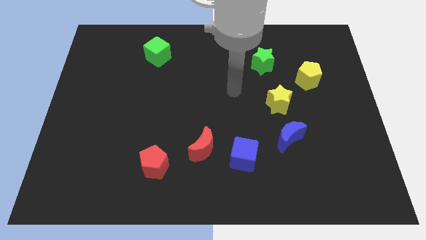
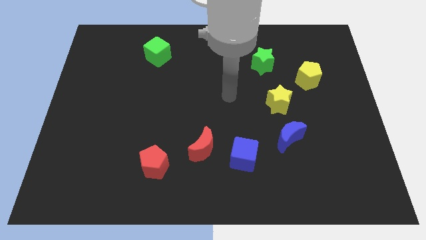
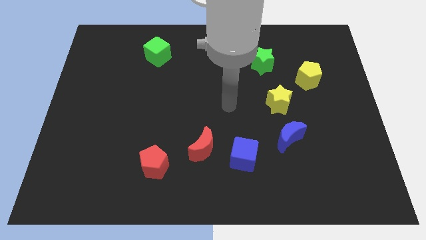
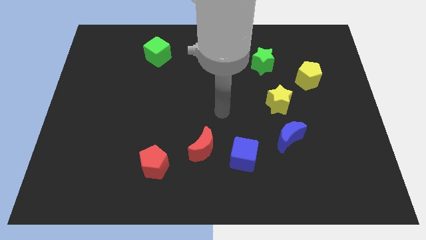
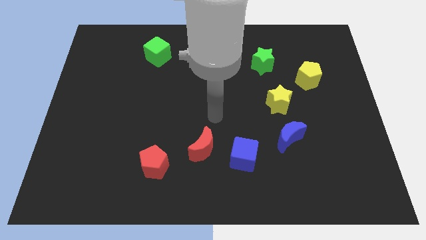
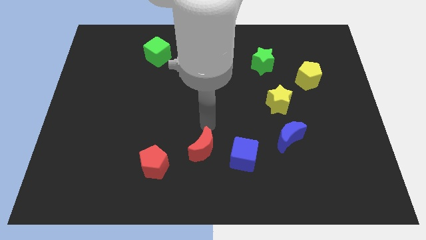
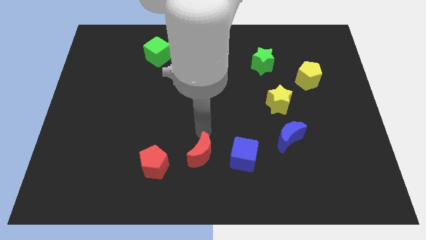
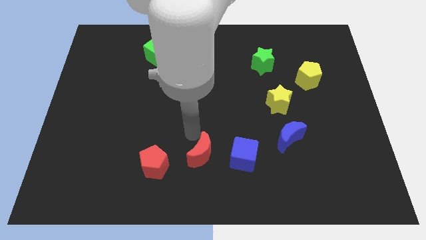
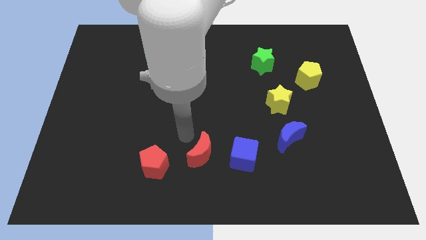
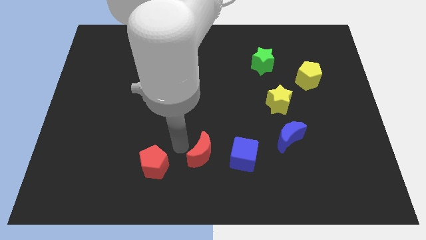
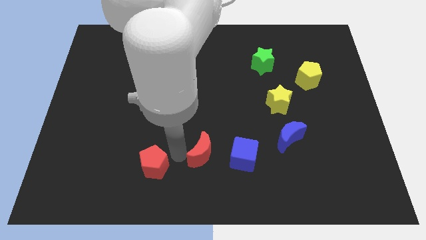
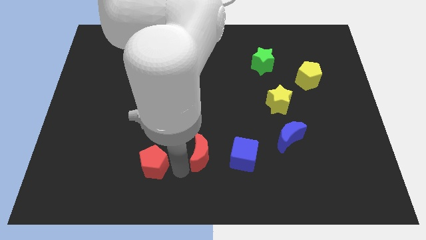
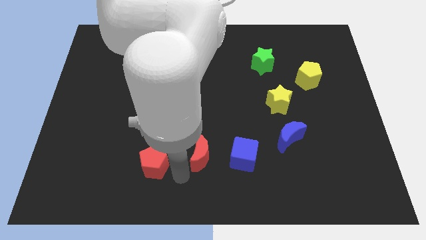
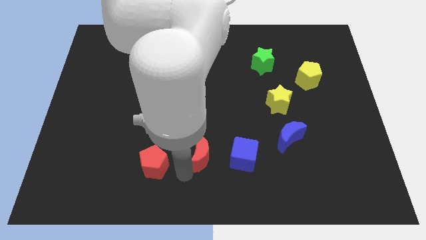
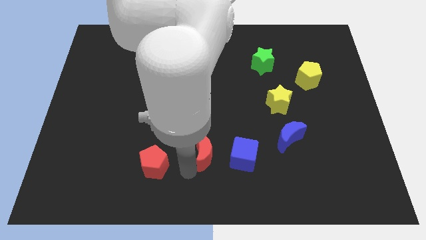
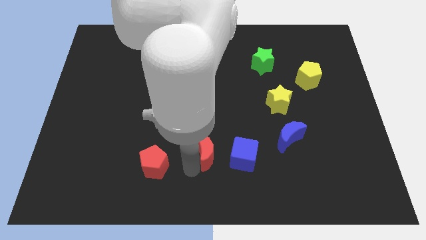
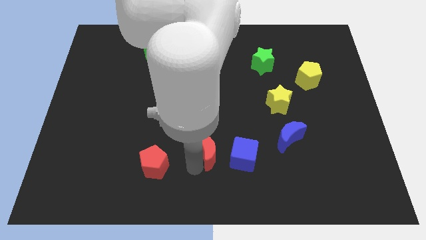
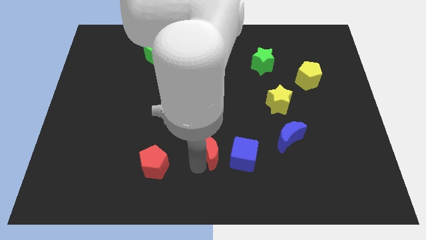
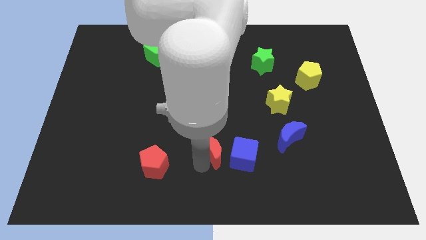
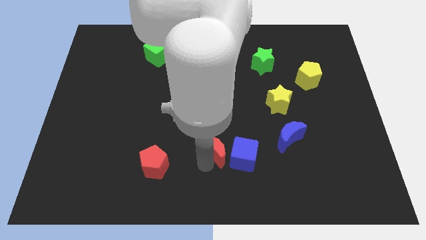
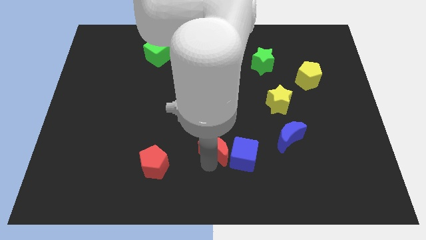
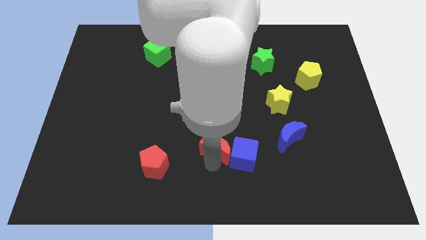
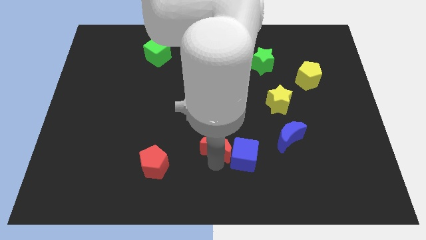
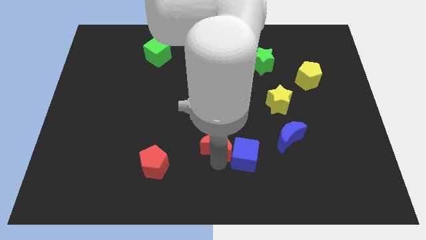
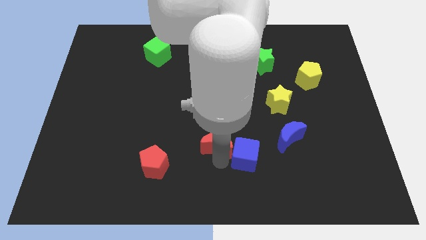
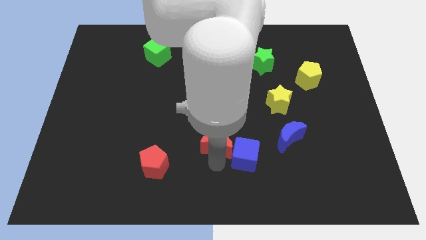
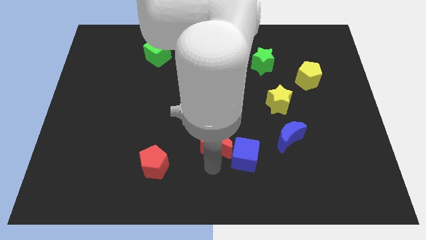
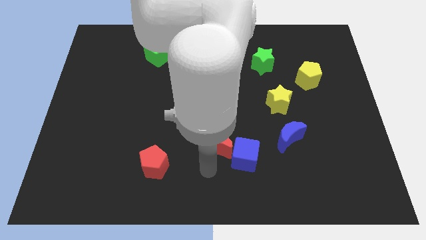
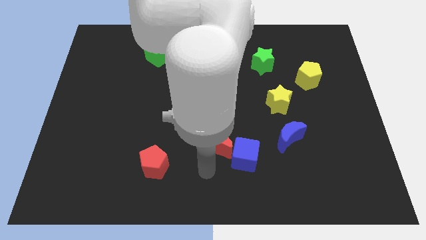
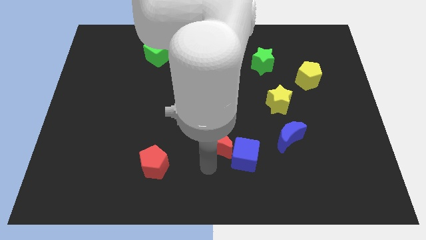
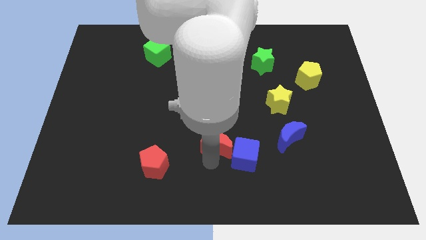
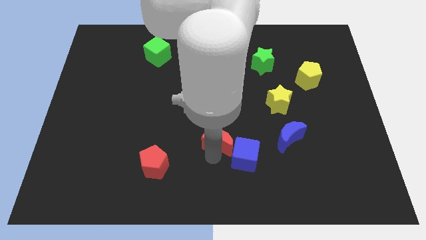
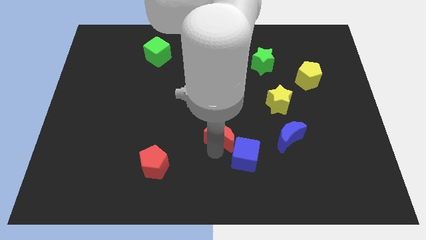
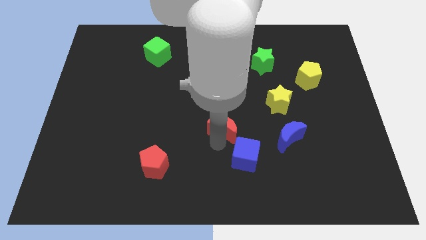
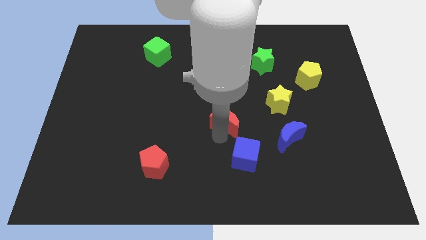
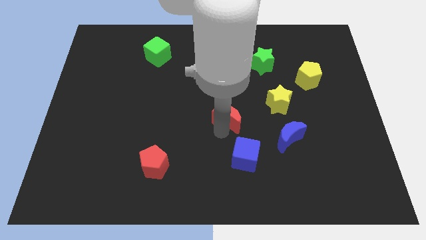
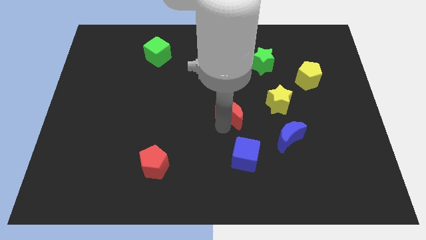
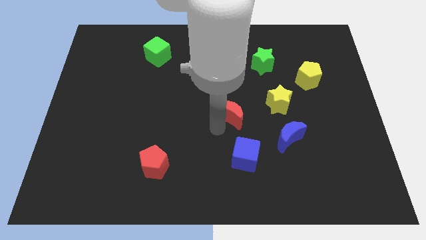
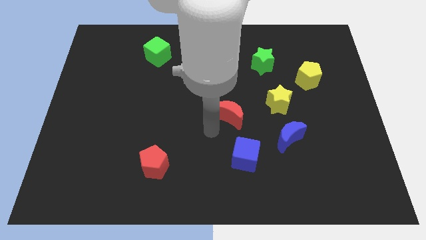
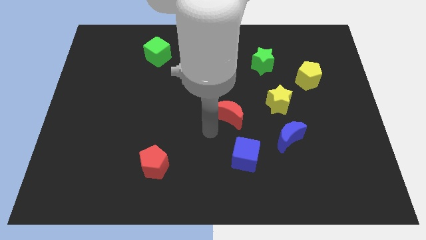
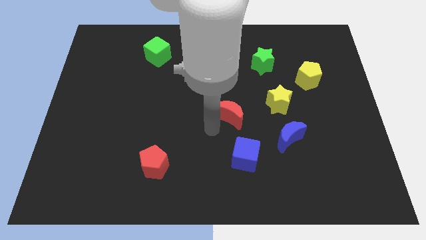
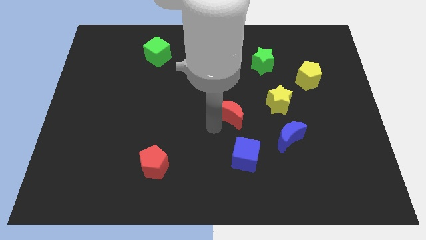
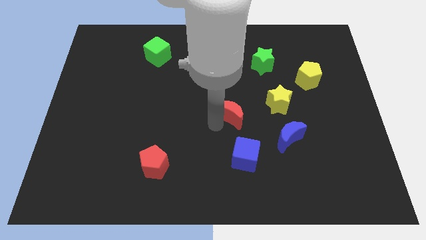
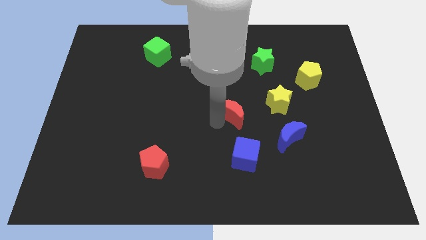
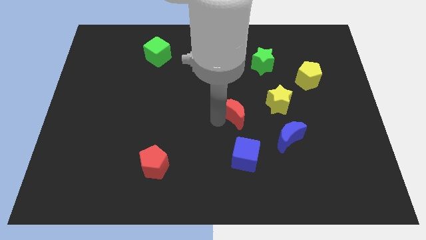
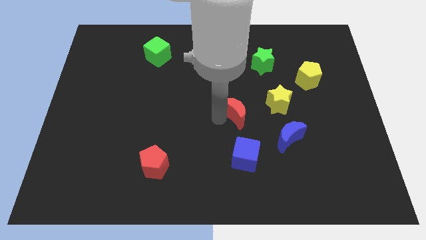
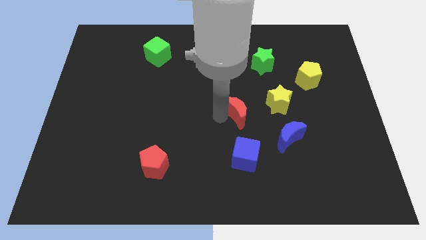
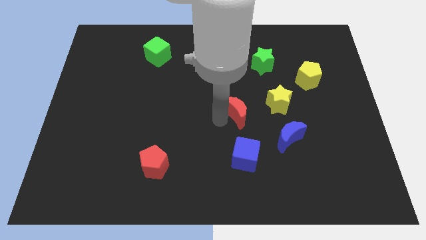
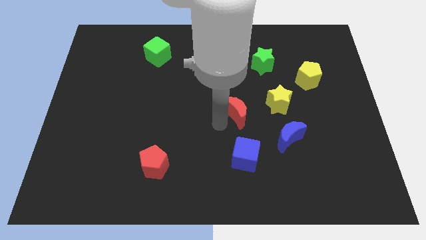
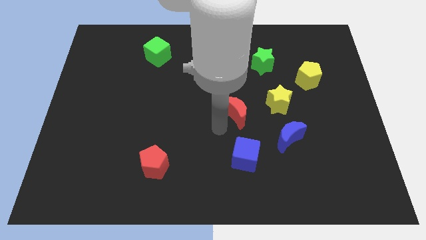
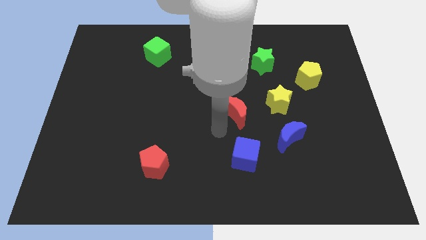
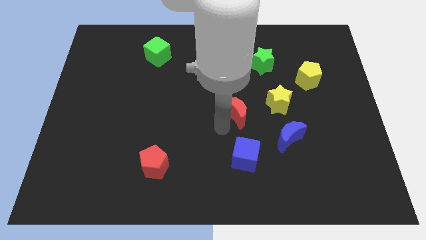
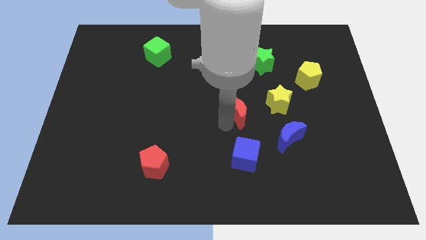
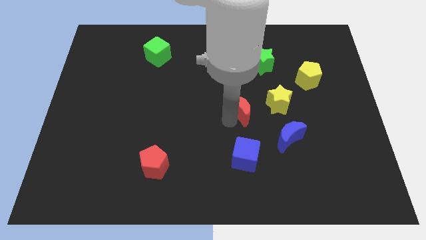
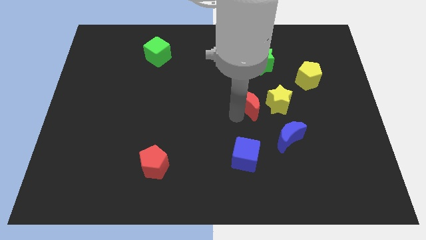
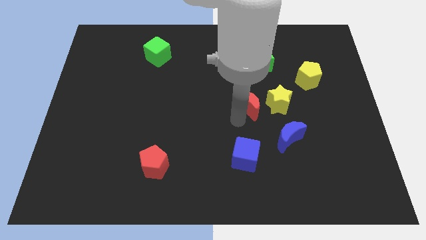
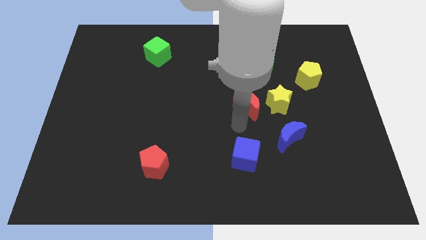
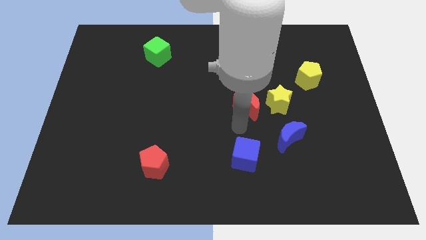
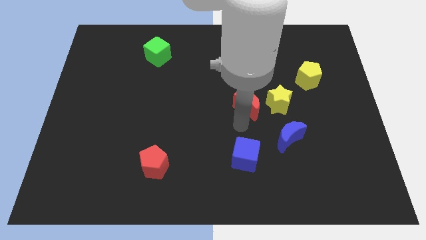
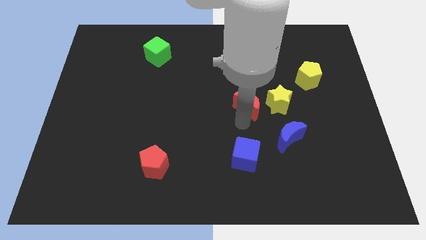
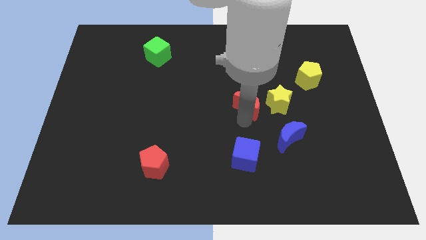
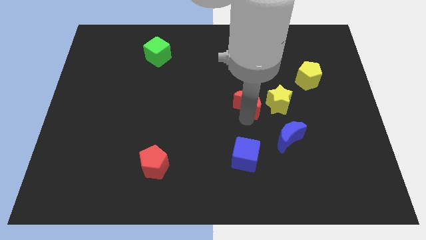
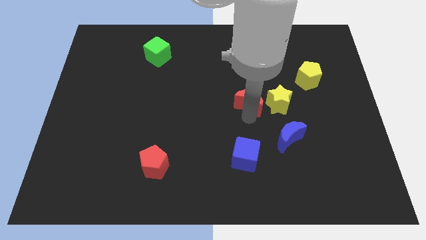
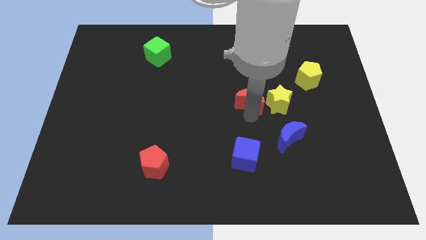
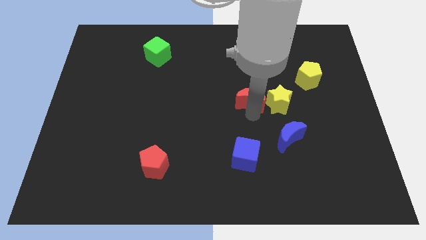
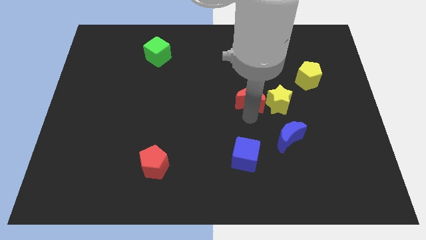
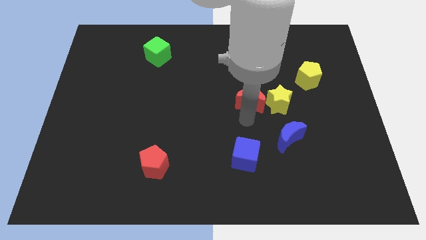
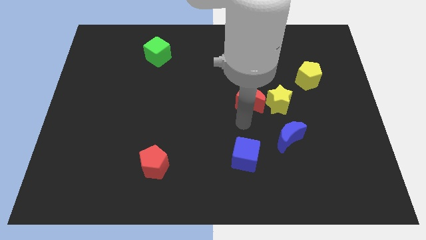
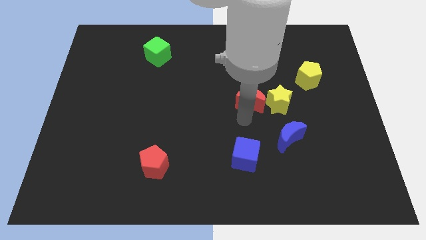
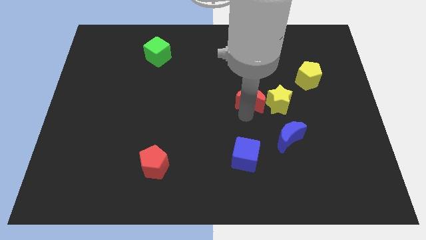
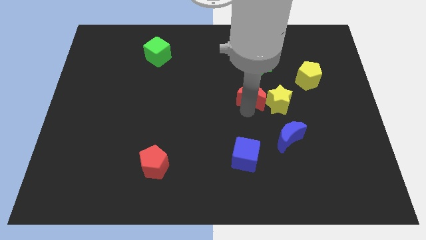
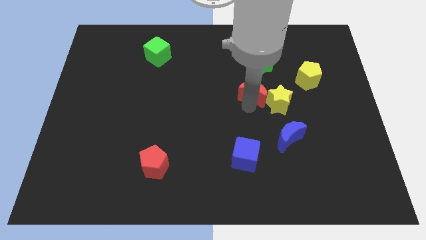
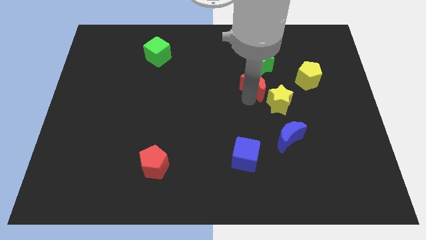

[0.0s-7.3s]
slide the red moon upwards and then right

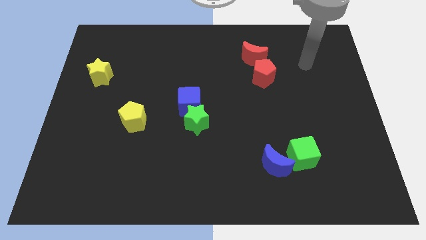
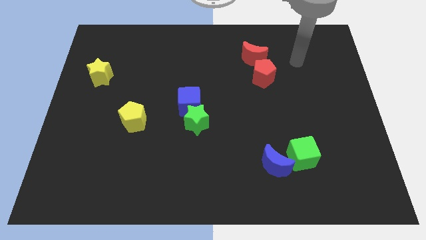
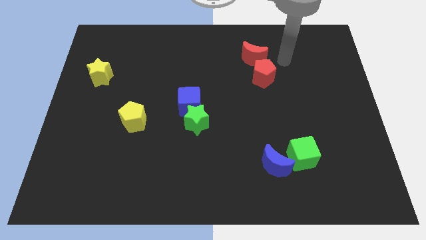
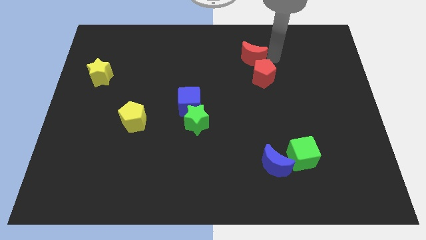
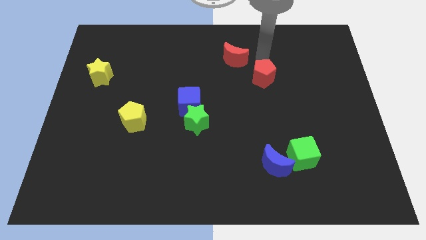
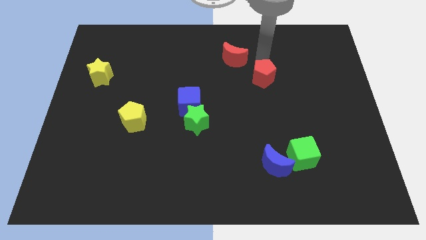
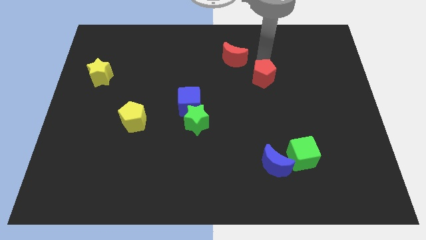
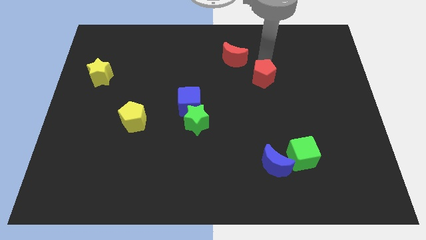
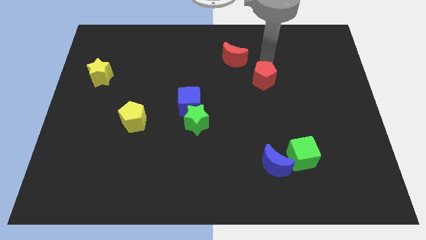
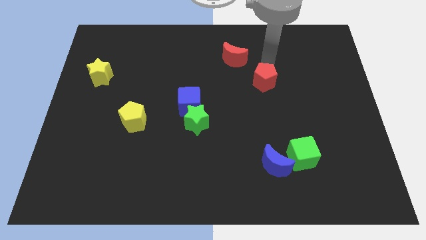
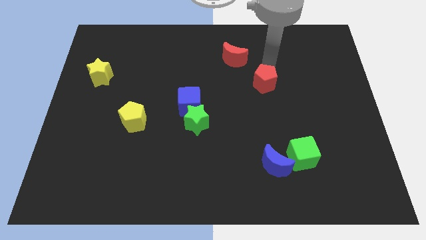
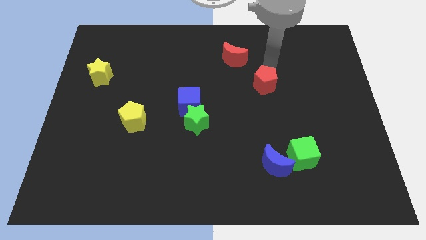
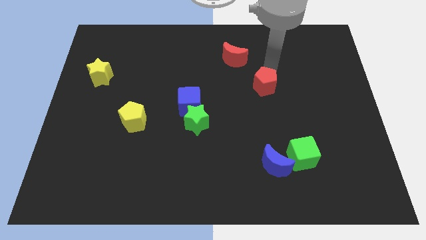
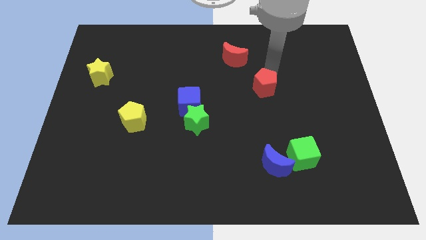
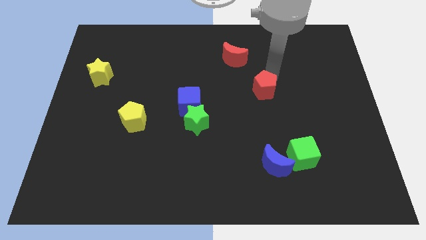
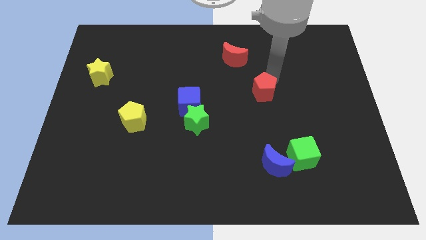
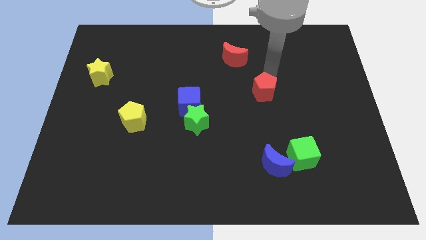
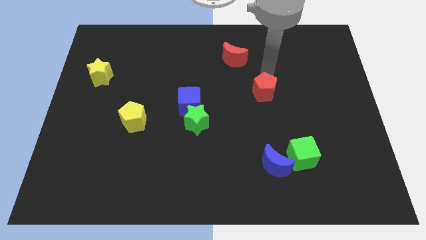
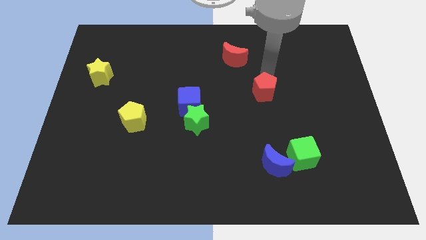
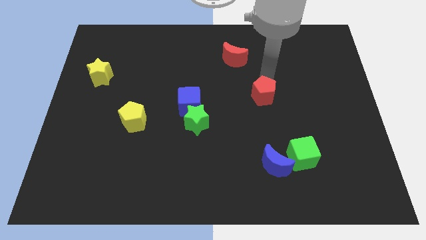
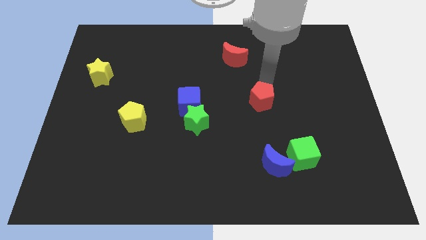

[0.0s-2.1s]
move the red pentagon downwards a bit
